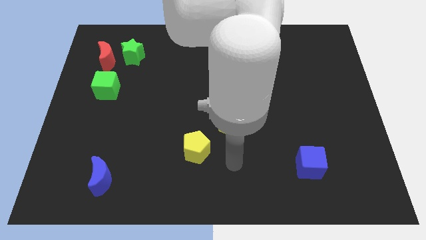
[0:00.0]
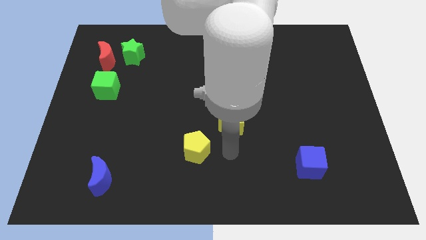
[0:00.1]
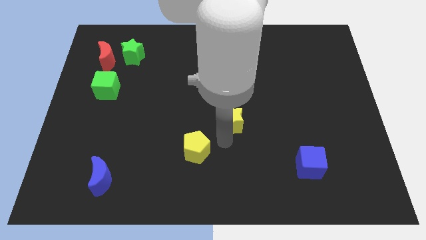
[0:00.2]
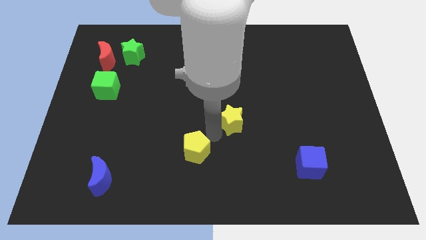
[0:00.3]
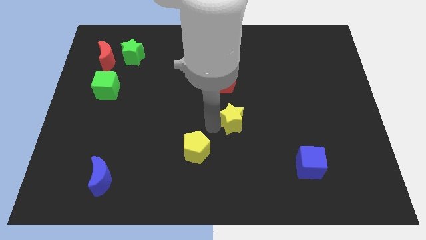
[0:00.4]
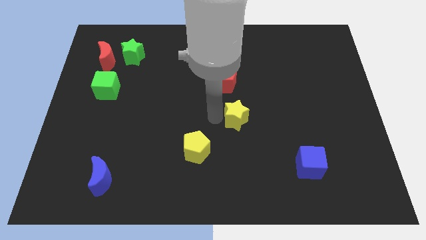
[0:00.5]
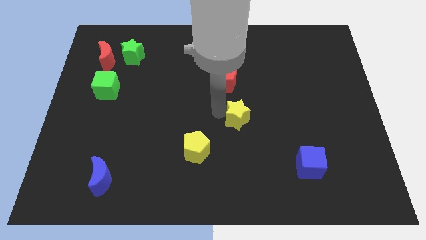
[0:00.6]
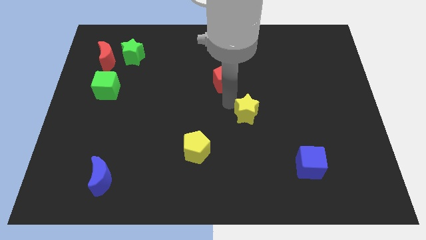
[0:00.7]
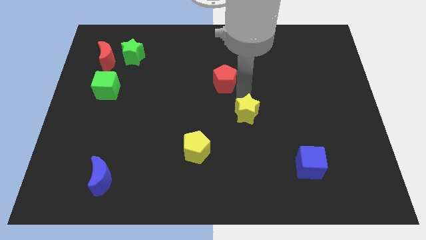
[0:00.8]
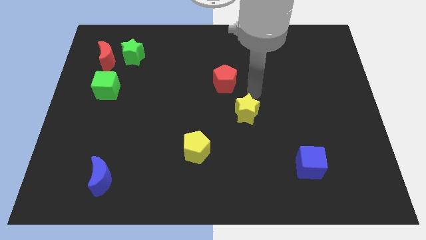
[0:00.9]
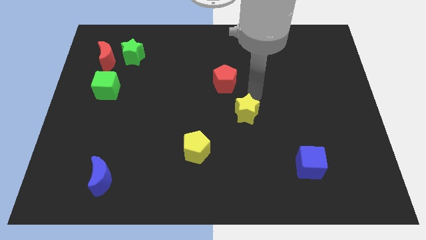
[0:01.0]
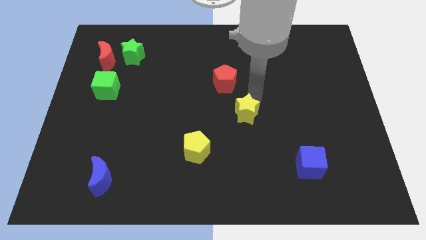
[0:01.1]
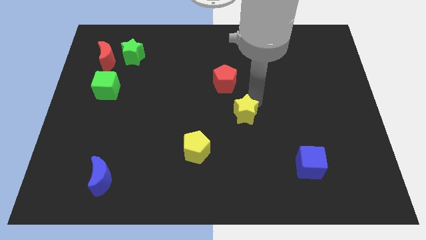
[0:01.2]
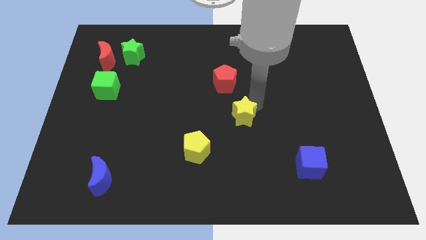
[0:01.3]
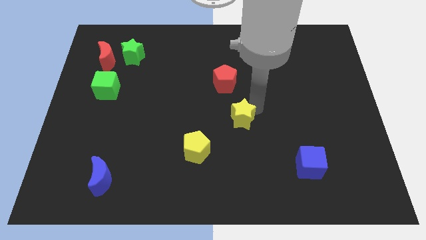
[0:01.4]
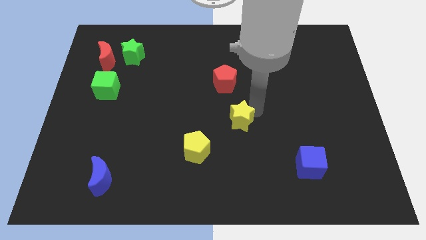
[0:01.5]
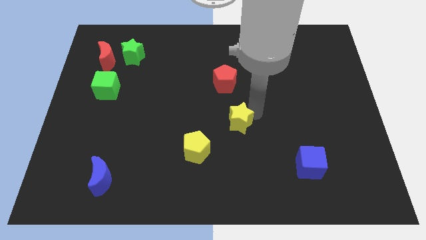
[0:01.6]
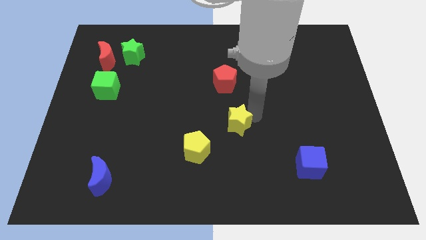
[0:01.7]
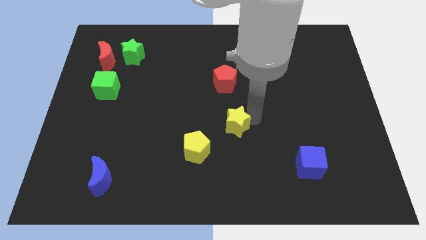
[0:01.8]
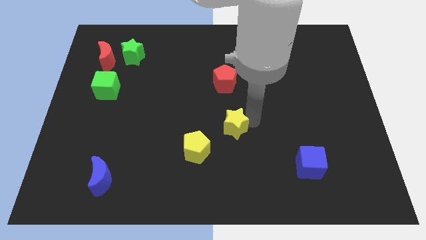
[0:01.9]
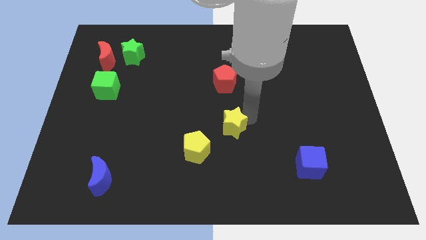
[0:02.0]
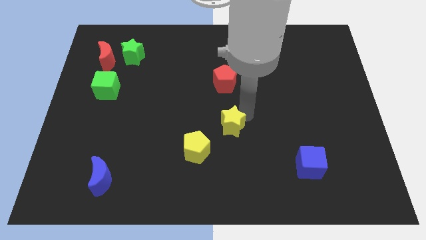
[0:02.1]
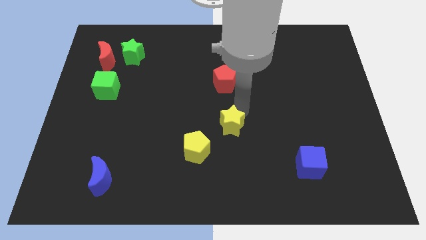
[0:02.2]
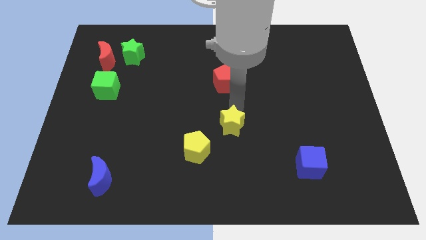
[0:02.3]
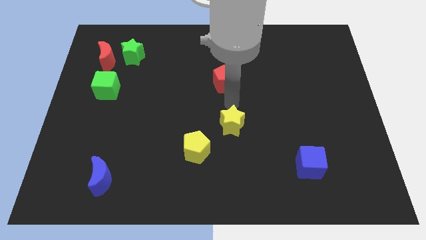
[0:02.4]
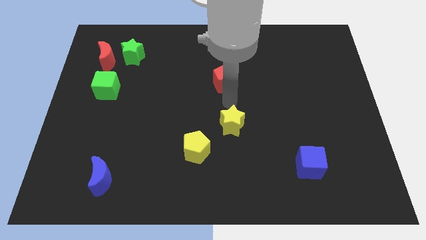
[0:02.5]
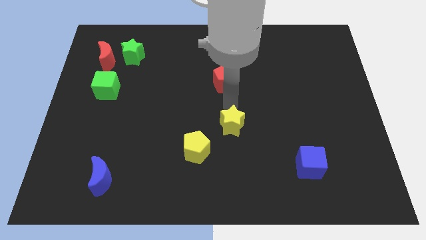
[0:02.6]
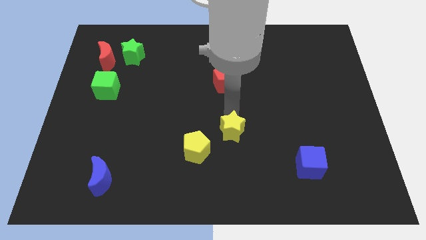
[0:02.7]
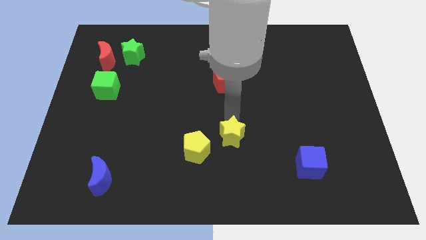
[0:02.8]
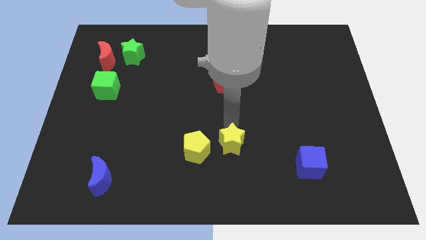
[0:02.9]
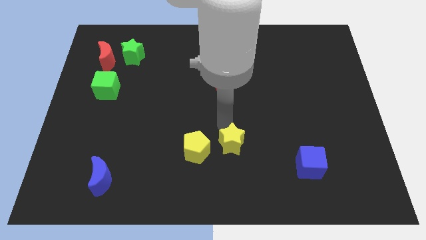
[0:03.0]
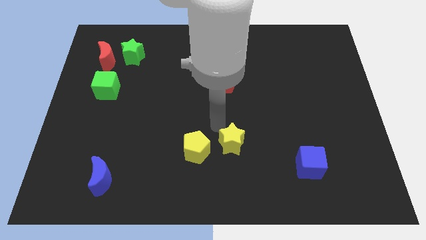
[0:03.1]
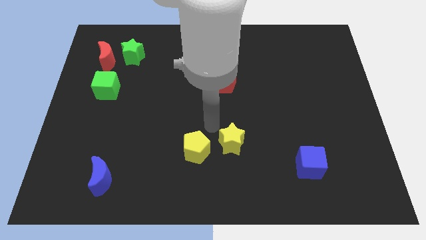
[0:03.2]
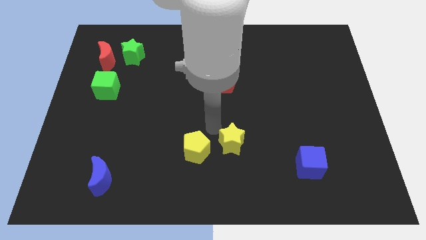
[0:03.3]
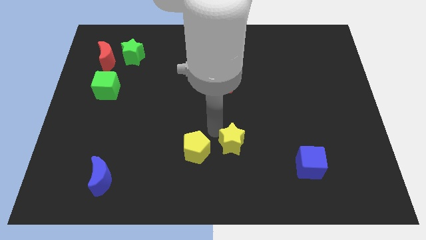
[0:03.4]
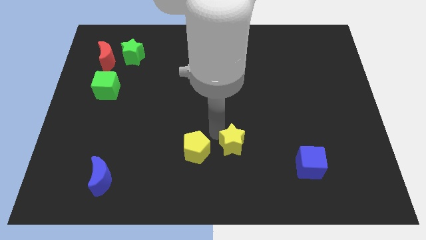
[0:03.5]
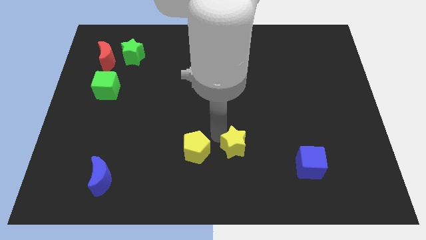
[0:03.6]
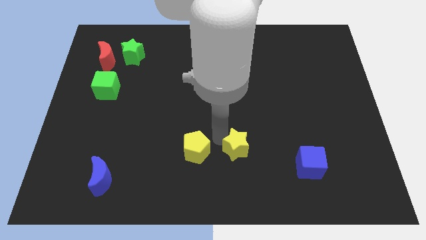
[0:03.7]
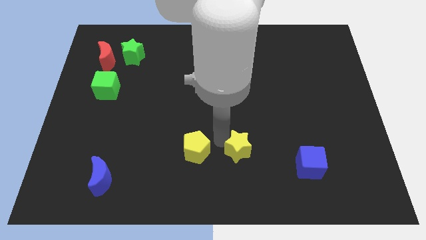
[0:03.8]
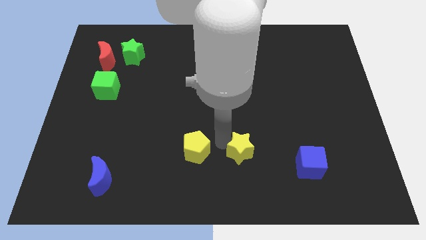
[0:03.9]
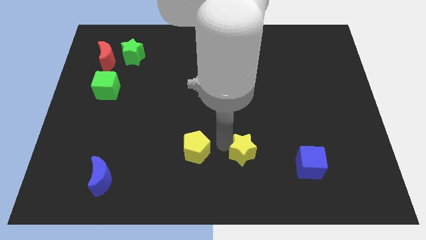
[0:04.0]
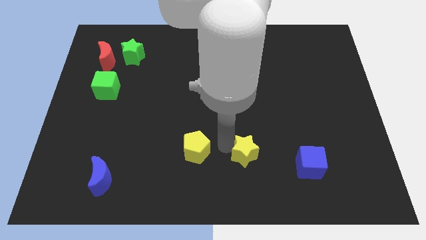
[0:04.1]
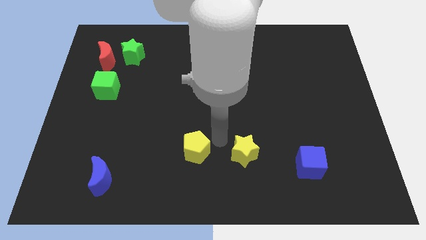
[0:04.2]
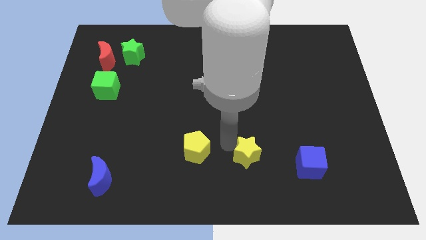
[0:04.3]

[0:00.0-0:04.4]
slide the yellow star a bit diagonally down and to the right

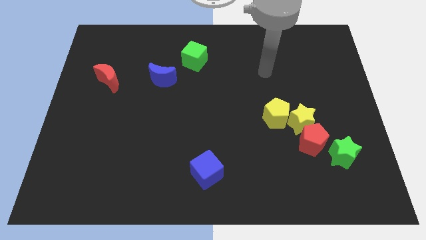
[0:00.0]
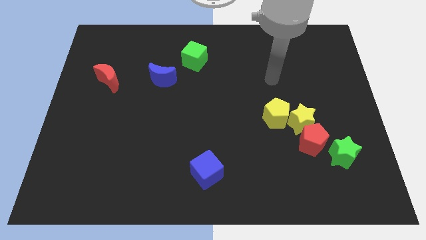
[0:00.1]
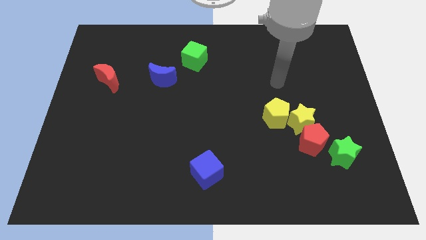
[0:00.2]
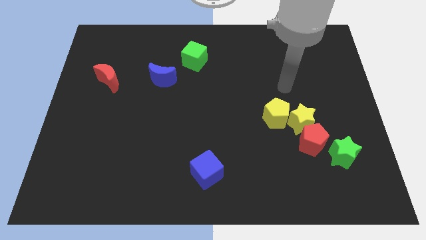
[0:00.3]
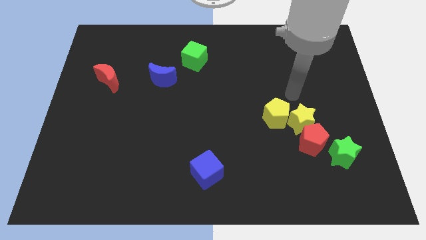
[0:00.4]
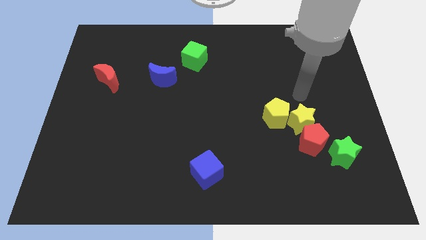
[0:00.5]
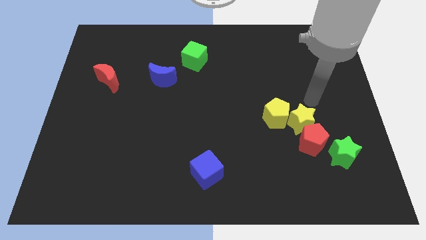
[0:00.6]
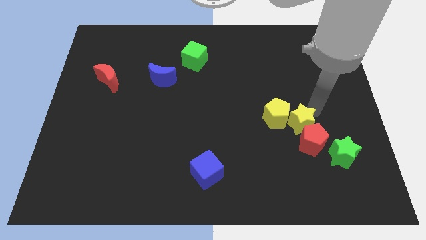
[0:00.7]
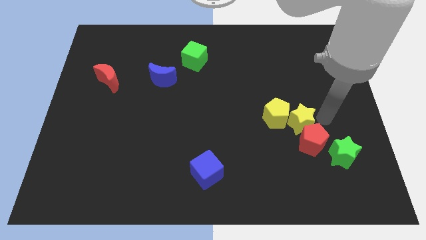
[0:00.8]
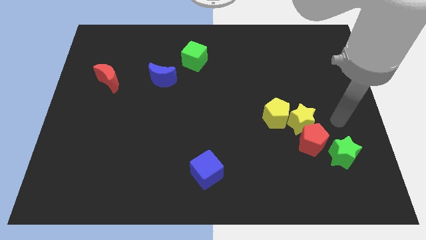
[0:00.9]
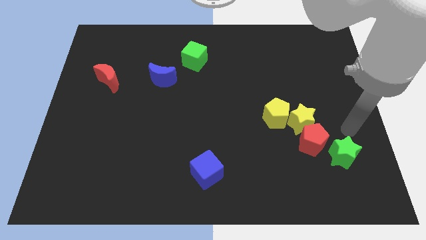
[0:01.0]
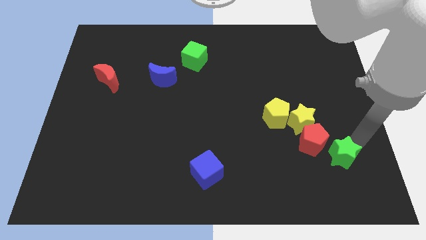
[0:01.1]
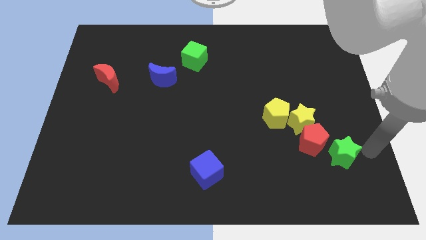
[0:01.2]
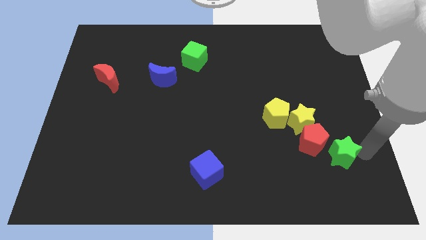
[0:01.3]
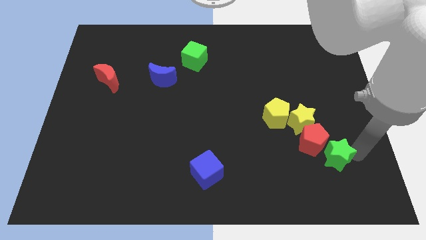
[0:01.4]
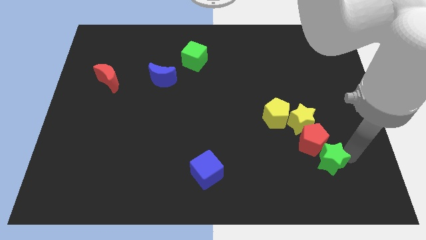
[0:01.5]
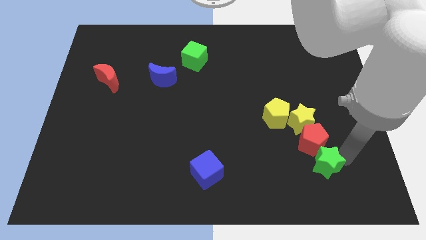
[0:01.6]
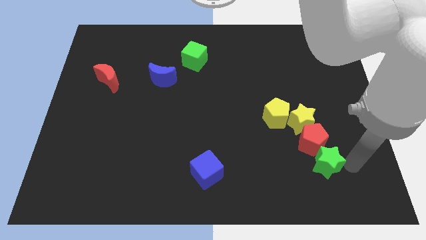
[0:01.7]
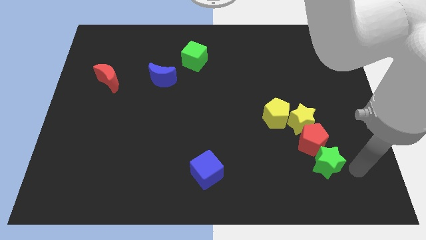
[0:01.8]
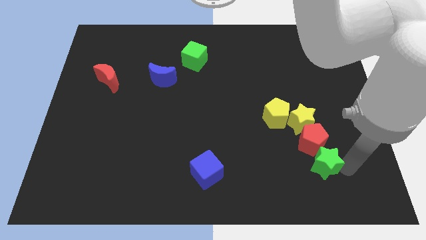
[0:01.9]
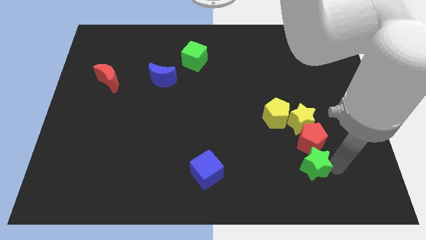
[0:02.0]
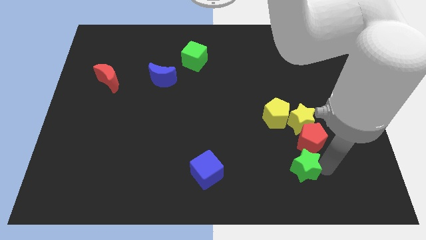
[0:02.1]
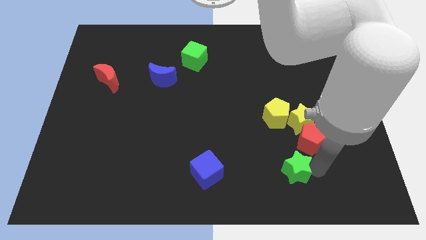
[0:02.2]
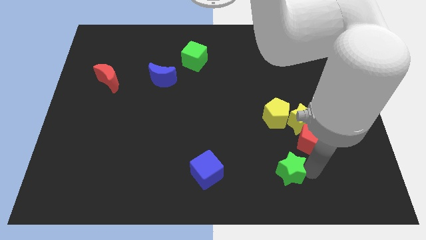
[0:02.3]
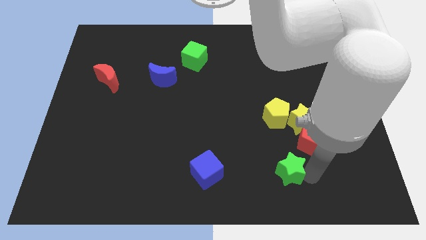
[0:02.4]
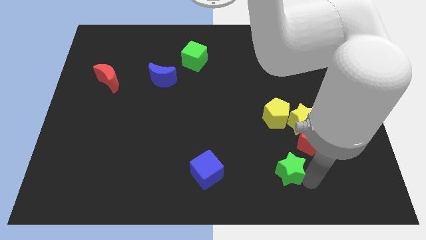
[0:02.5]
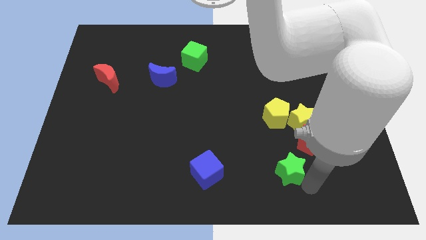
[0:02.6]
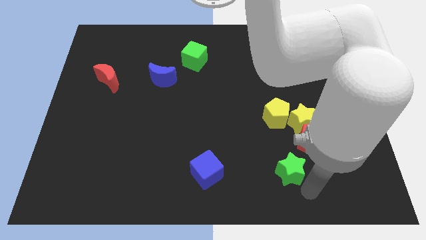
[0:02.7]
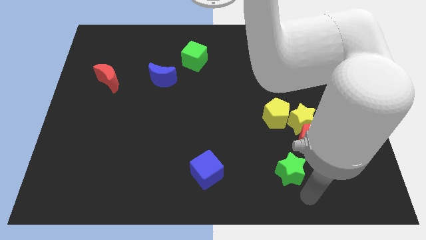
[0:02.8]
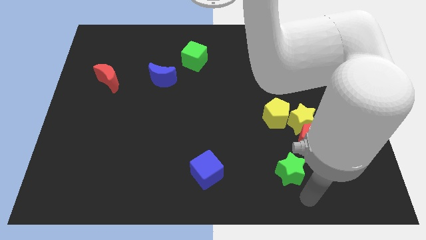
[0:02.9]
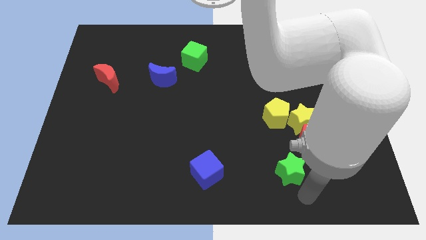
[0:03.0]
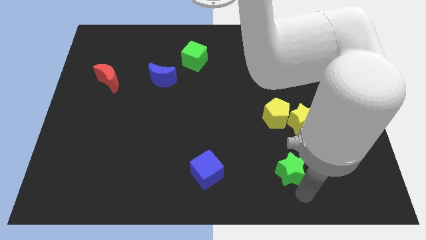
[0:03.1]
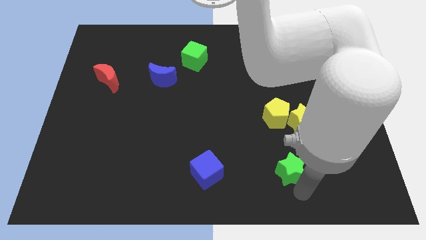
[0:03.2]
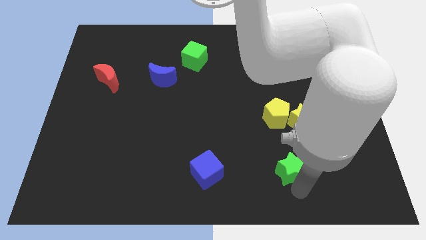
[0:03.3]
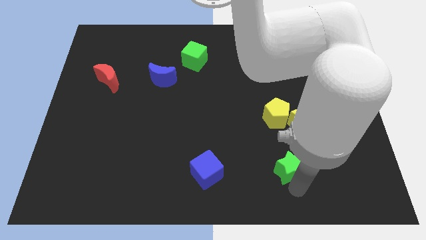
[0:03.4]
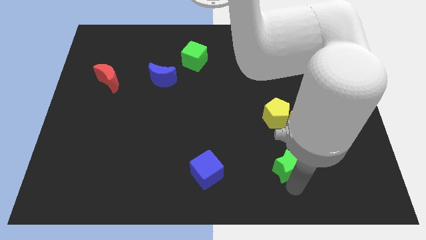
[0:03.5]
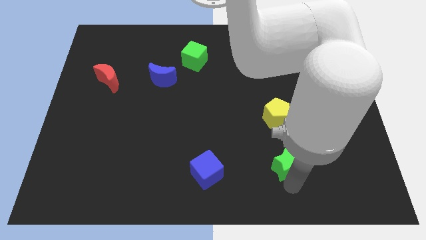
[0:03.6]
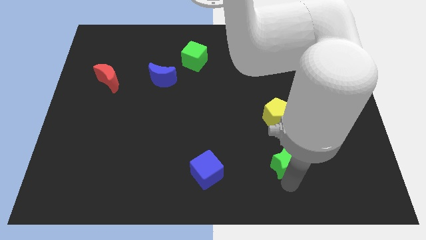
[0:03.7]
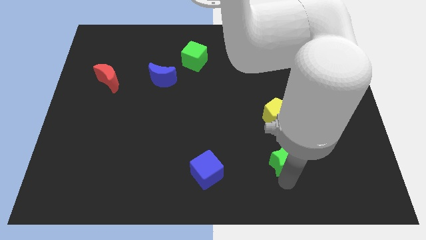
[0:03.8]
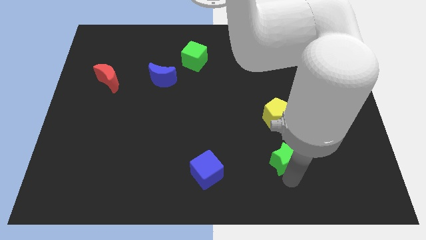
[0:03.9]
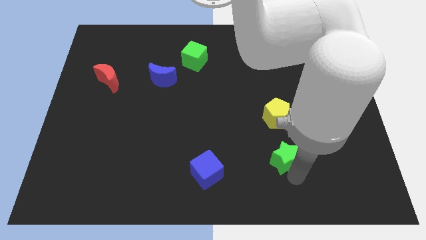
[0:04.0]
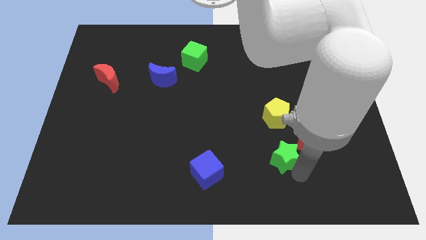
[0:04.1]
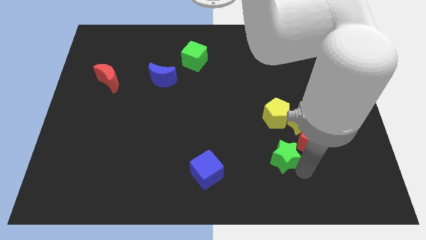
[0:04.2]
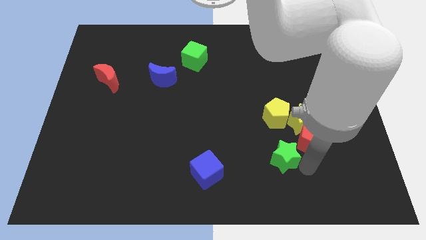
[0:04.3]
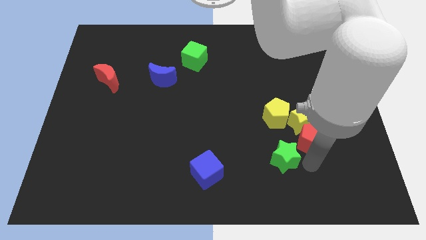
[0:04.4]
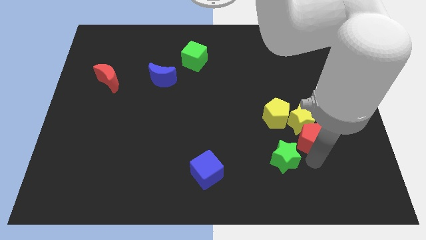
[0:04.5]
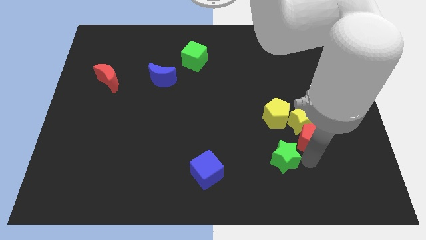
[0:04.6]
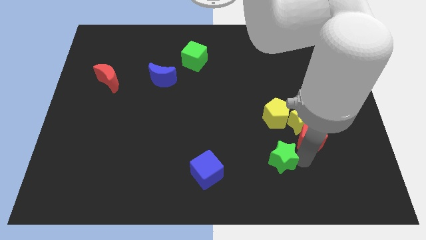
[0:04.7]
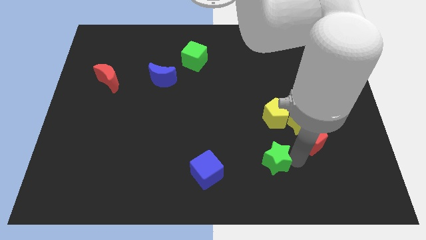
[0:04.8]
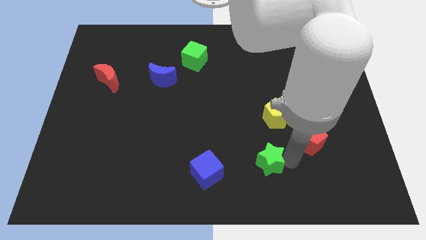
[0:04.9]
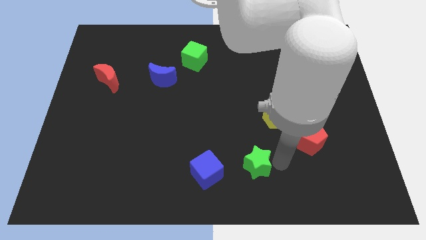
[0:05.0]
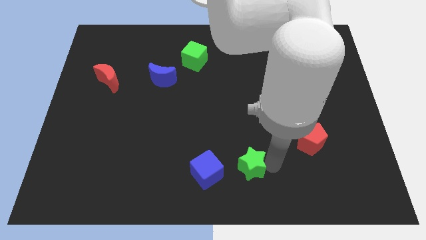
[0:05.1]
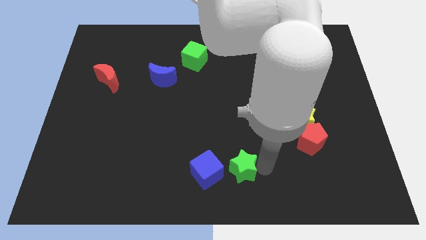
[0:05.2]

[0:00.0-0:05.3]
move the green star to the left
